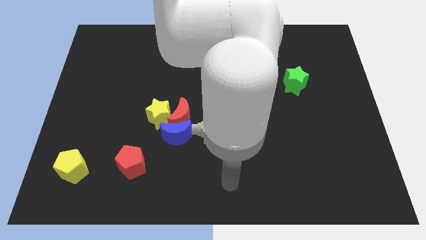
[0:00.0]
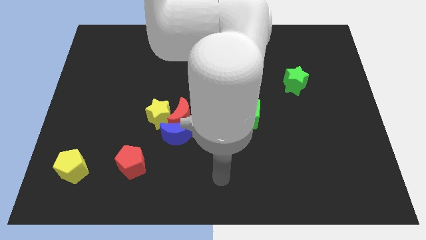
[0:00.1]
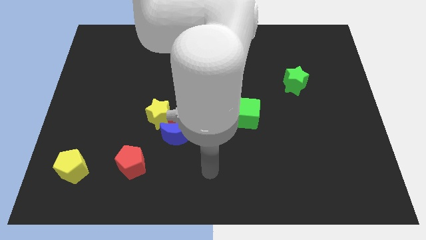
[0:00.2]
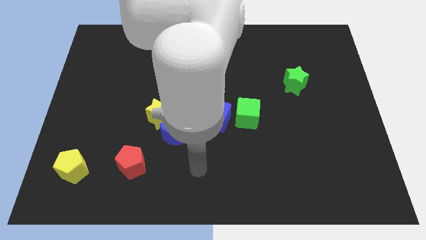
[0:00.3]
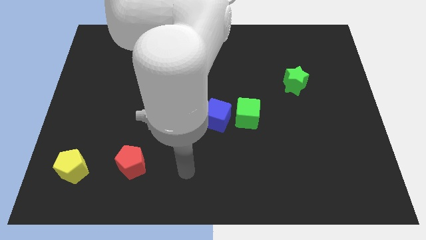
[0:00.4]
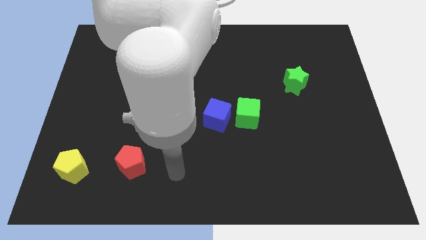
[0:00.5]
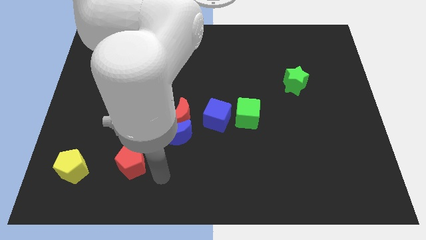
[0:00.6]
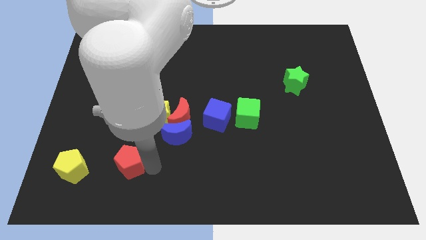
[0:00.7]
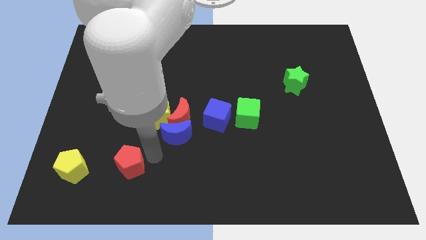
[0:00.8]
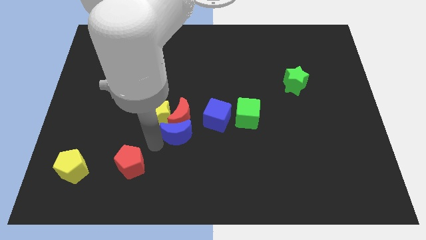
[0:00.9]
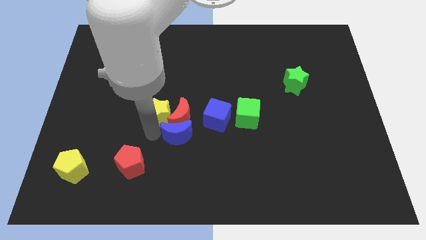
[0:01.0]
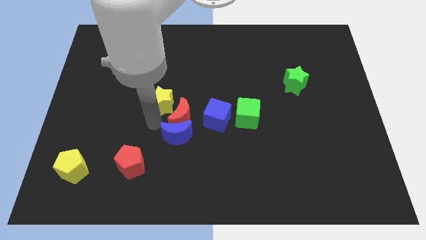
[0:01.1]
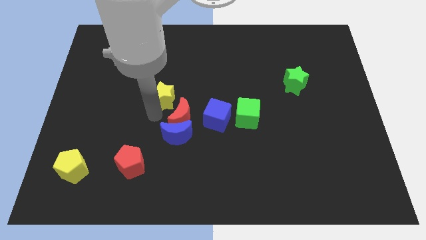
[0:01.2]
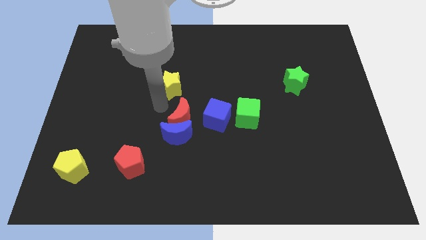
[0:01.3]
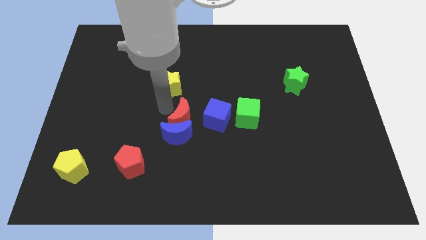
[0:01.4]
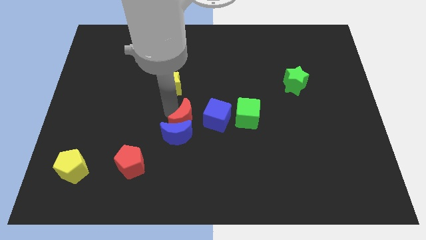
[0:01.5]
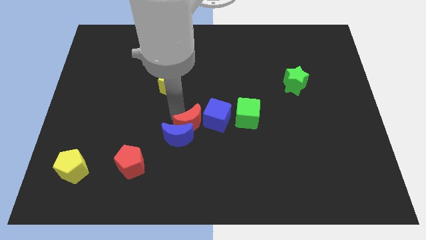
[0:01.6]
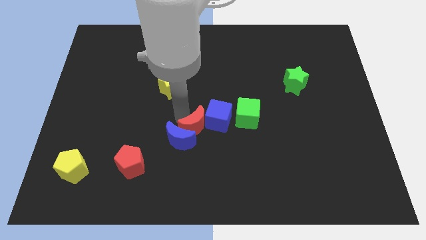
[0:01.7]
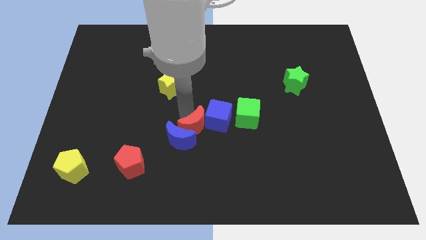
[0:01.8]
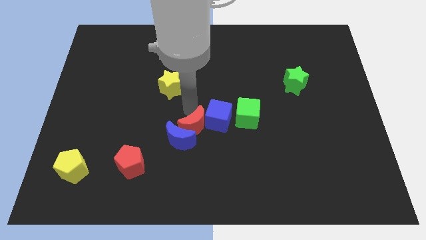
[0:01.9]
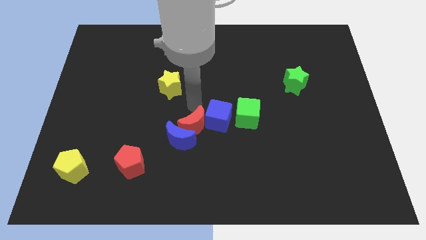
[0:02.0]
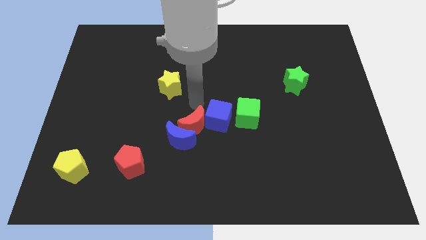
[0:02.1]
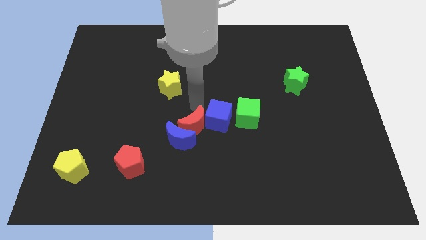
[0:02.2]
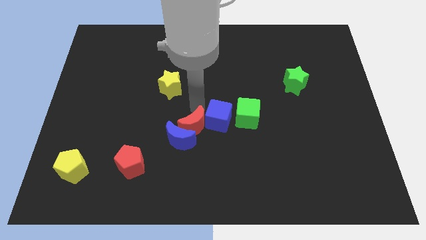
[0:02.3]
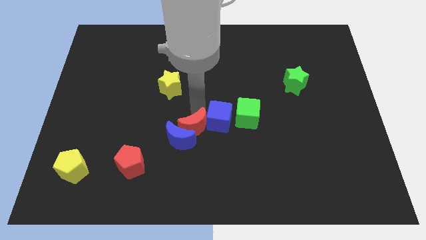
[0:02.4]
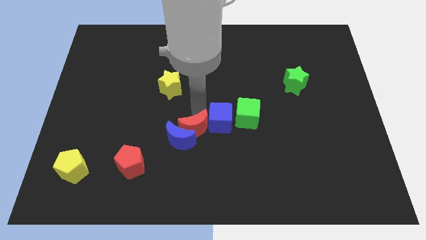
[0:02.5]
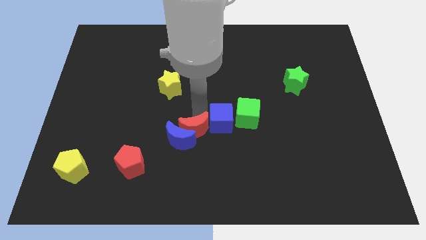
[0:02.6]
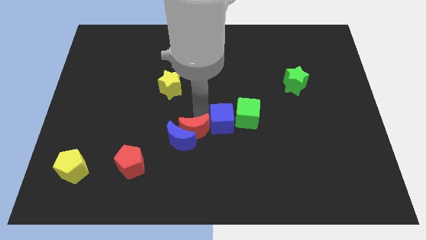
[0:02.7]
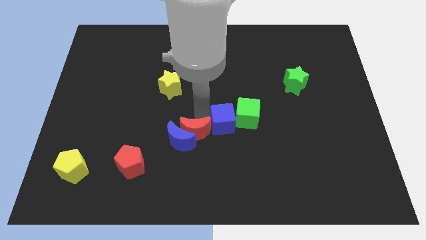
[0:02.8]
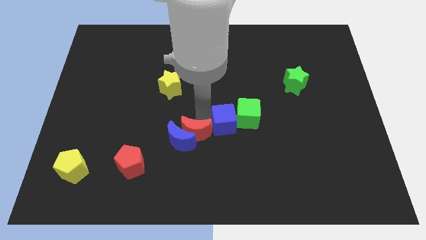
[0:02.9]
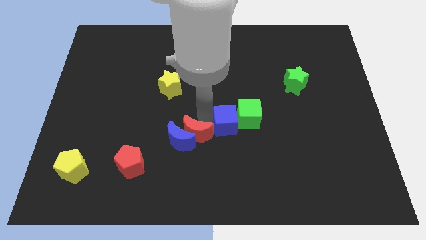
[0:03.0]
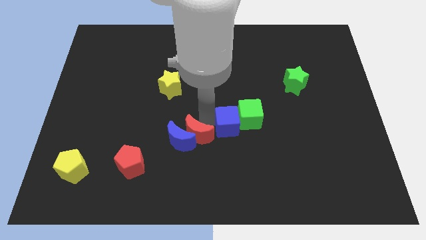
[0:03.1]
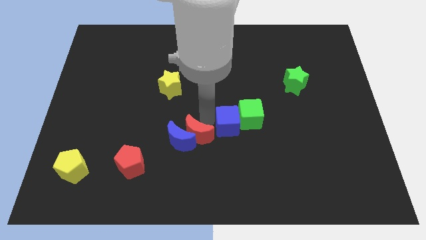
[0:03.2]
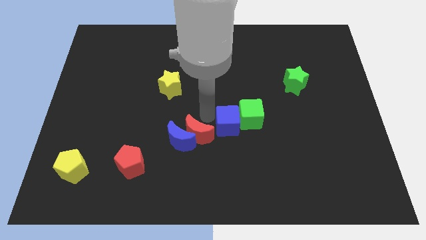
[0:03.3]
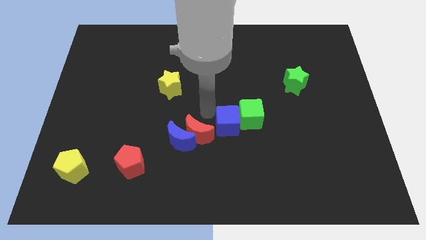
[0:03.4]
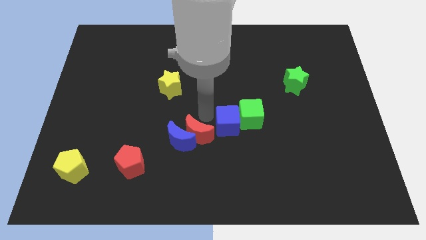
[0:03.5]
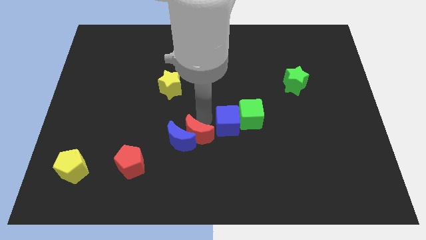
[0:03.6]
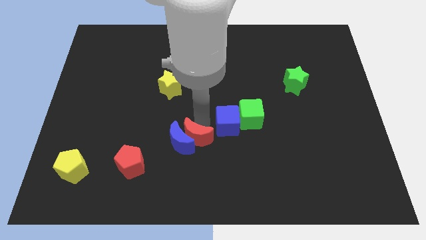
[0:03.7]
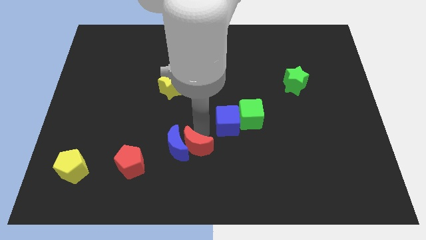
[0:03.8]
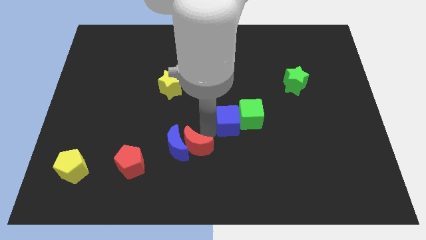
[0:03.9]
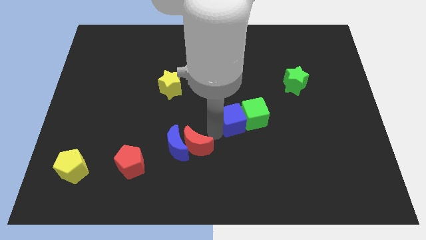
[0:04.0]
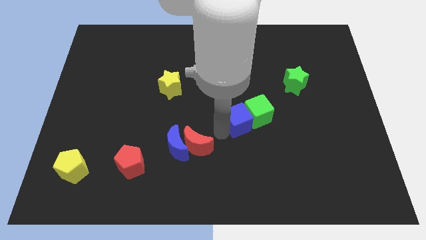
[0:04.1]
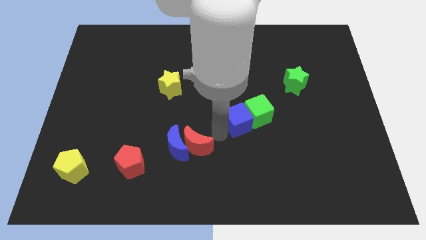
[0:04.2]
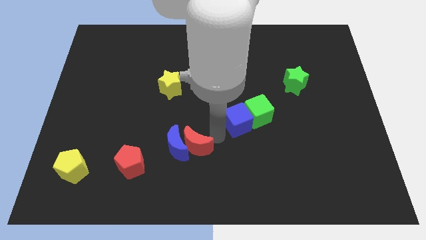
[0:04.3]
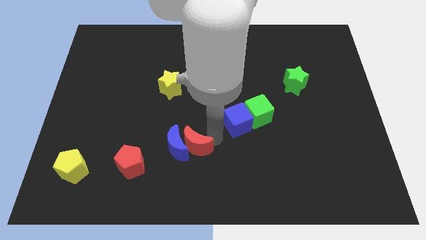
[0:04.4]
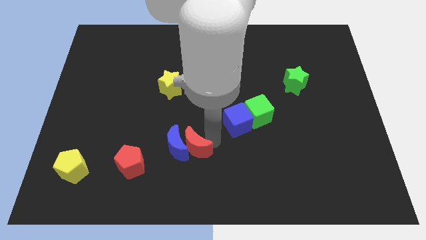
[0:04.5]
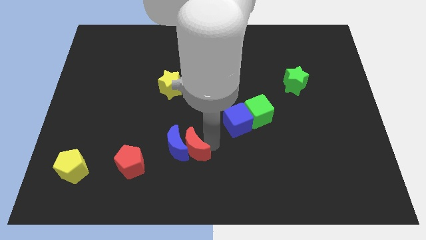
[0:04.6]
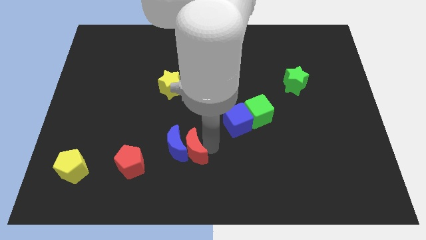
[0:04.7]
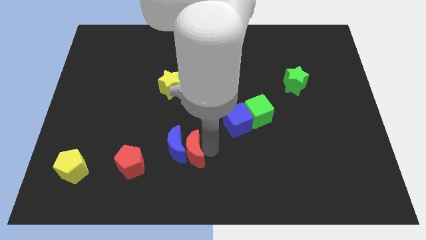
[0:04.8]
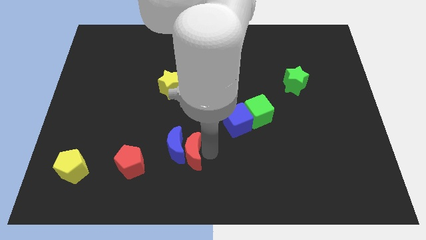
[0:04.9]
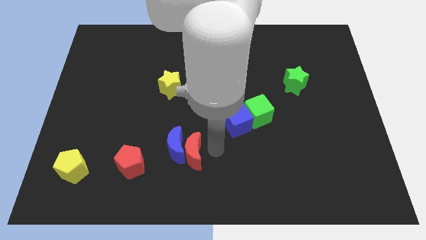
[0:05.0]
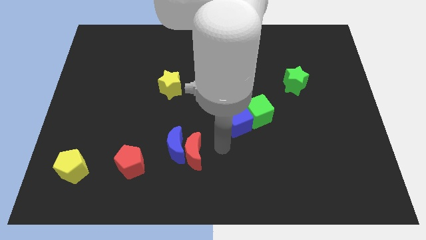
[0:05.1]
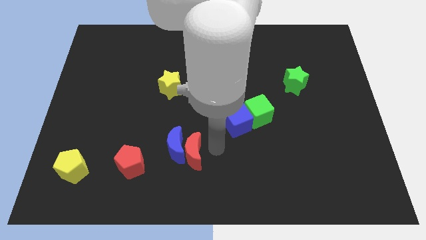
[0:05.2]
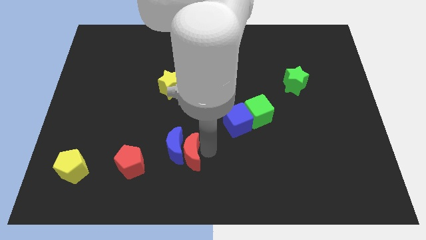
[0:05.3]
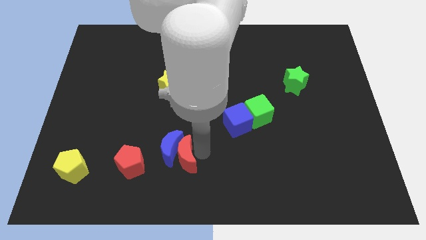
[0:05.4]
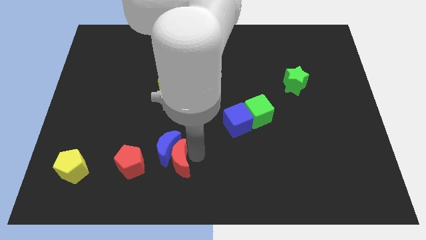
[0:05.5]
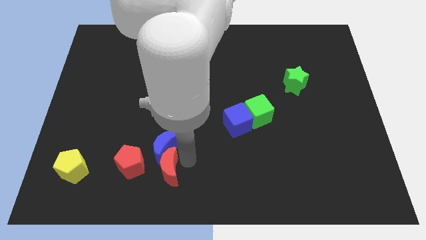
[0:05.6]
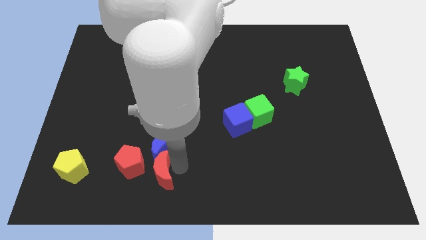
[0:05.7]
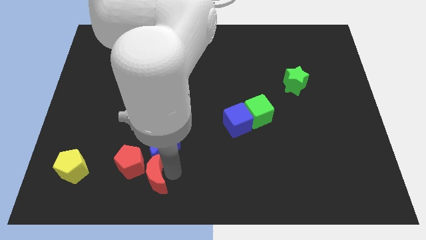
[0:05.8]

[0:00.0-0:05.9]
move the red moon towards the red pentagon

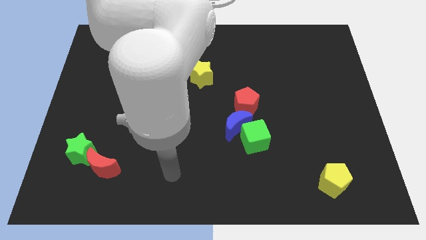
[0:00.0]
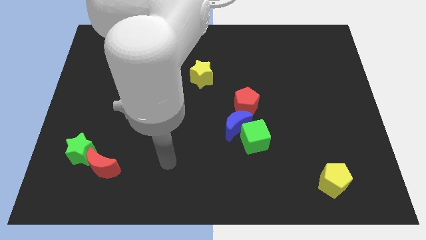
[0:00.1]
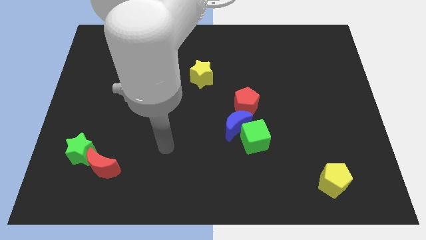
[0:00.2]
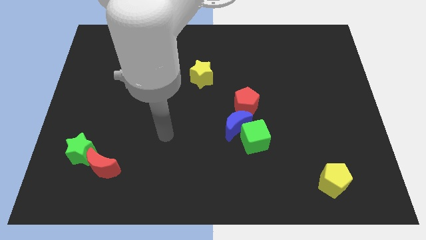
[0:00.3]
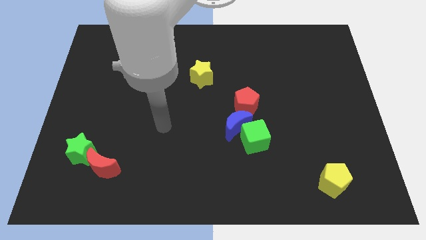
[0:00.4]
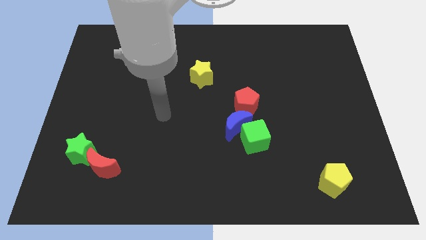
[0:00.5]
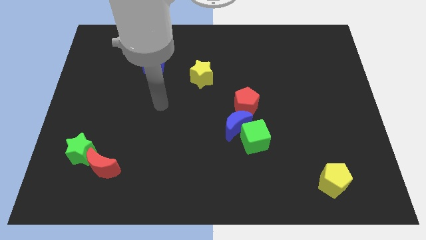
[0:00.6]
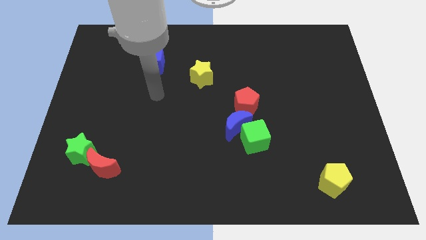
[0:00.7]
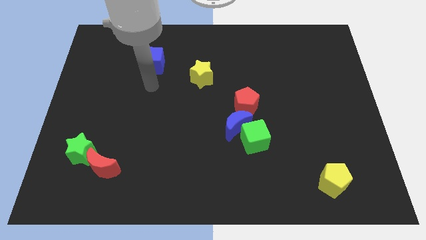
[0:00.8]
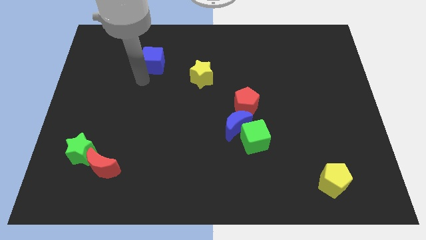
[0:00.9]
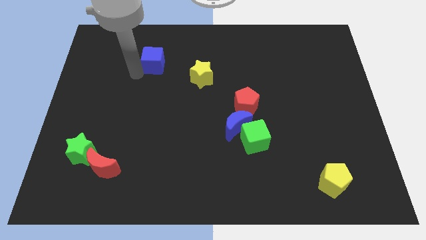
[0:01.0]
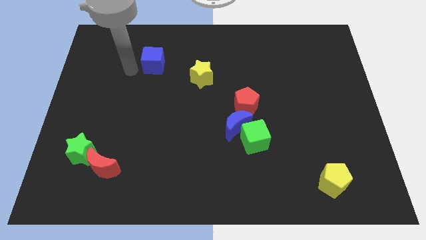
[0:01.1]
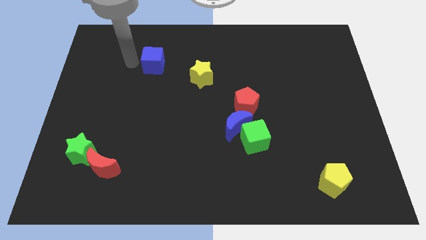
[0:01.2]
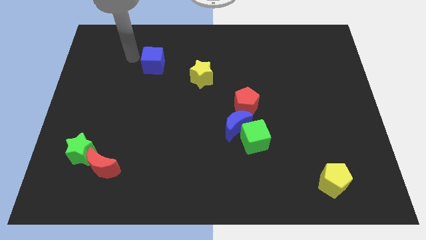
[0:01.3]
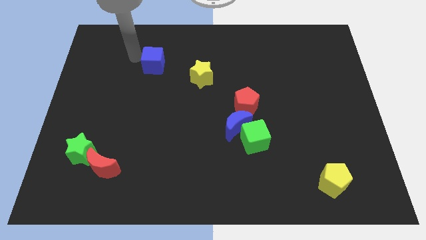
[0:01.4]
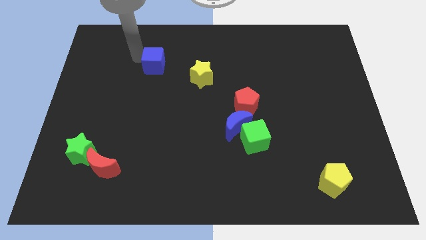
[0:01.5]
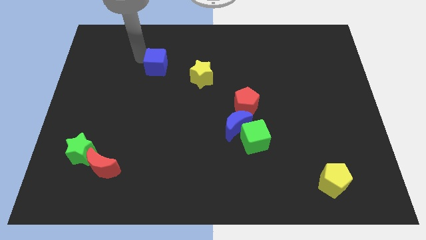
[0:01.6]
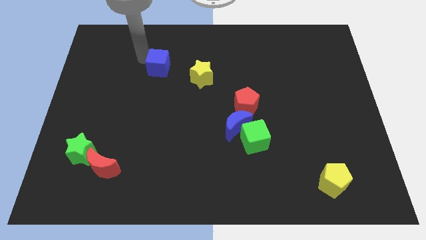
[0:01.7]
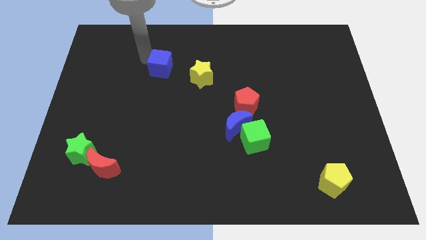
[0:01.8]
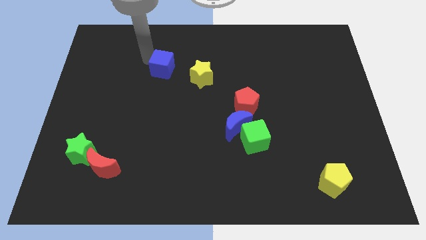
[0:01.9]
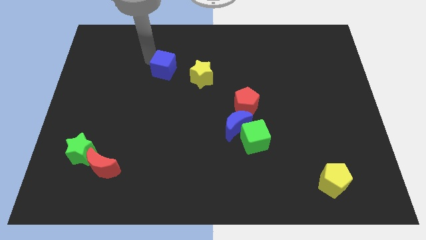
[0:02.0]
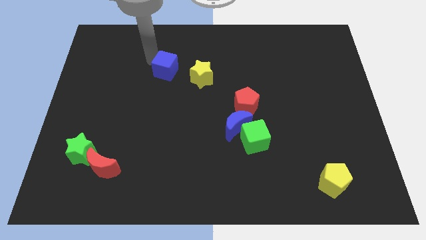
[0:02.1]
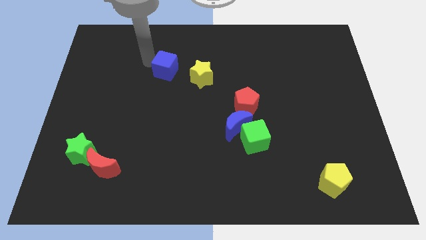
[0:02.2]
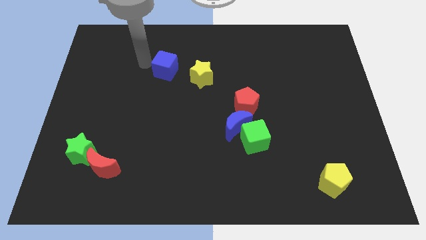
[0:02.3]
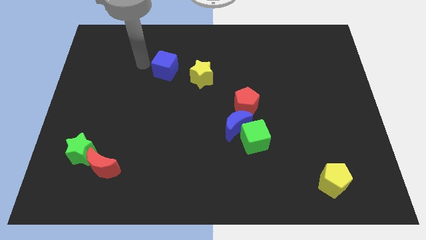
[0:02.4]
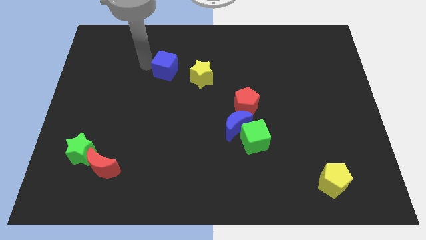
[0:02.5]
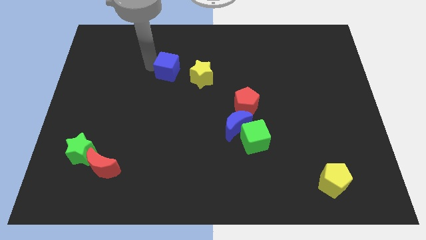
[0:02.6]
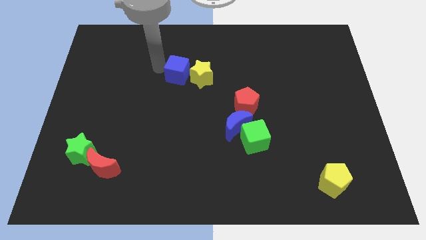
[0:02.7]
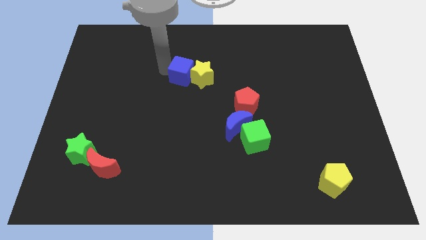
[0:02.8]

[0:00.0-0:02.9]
put the blue cube to the yellow star
